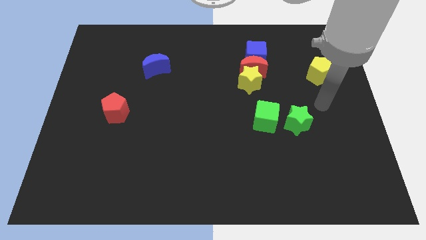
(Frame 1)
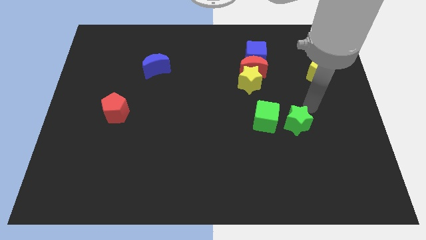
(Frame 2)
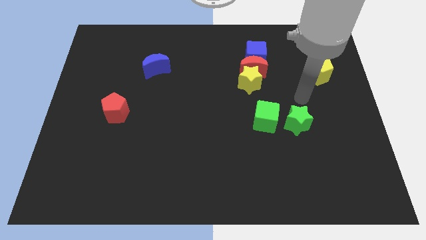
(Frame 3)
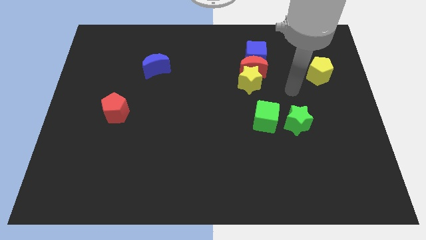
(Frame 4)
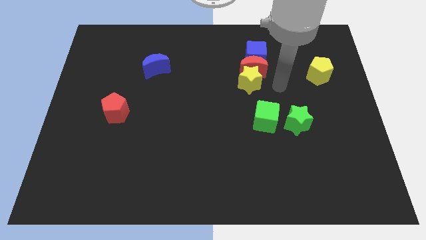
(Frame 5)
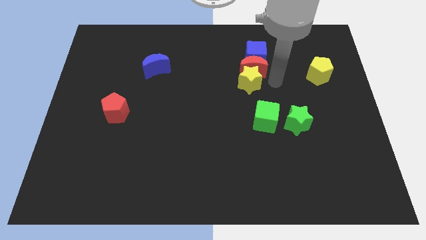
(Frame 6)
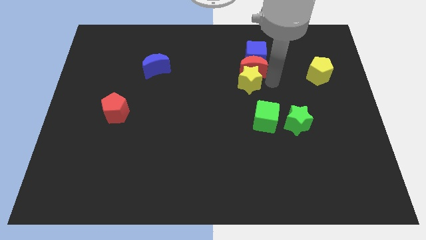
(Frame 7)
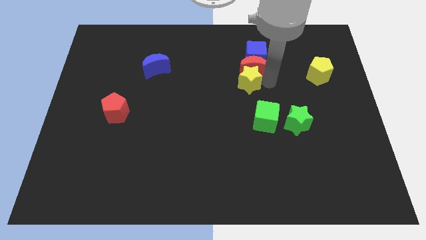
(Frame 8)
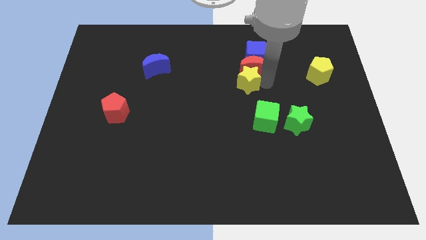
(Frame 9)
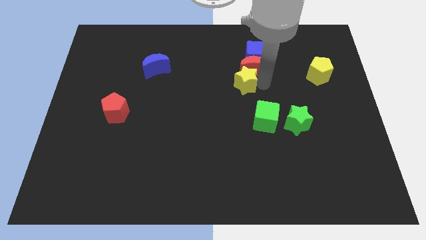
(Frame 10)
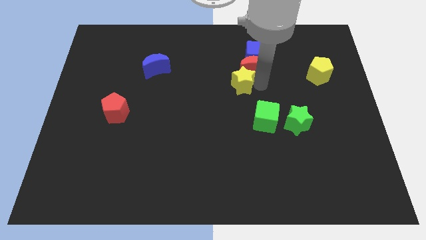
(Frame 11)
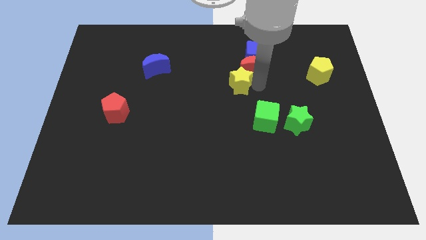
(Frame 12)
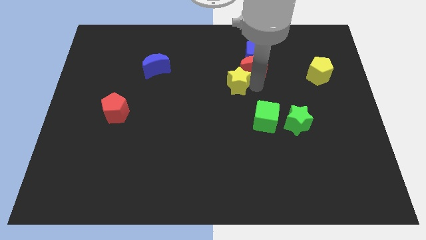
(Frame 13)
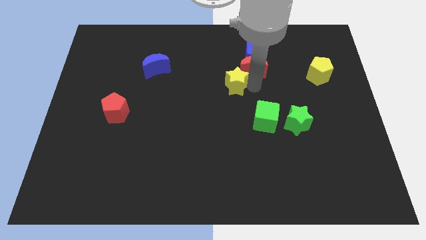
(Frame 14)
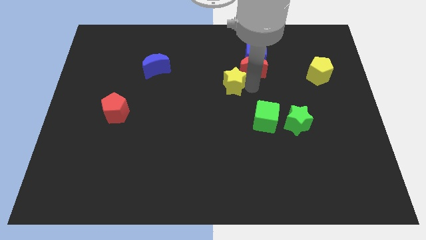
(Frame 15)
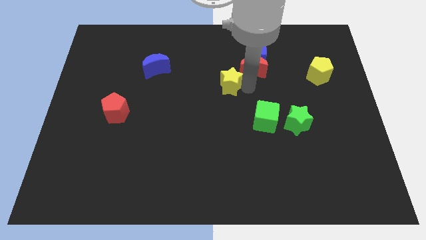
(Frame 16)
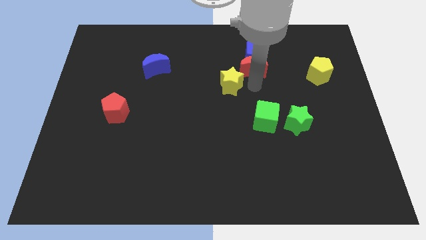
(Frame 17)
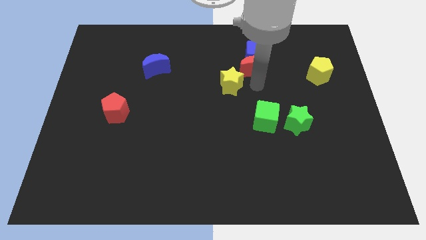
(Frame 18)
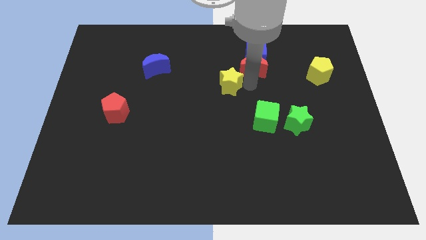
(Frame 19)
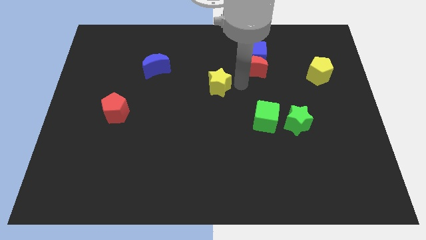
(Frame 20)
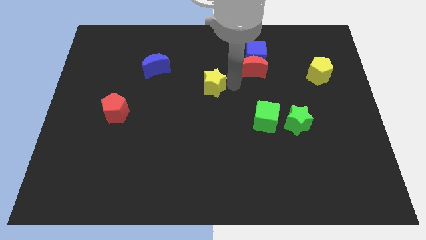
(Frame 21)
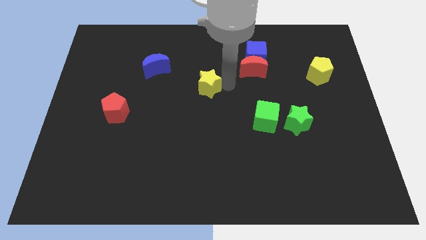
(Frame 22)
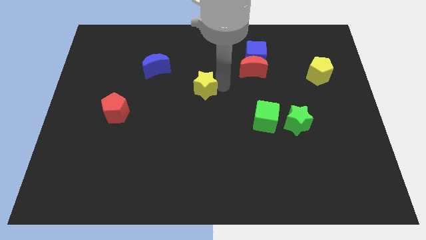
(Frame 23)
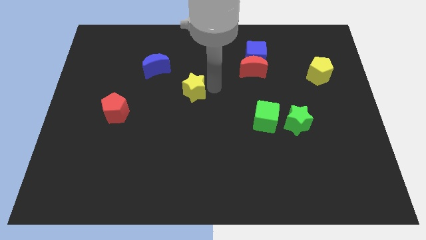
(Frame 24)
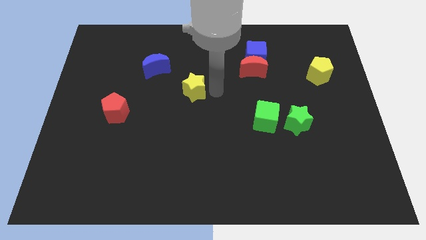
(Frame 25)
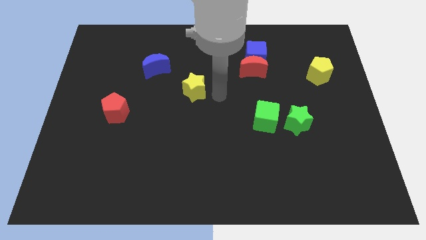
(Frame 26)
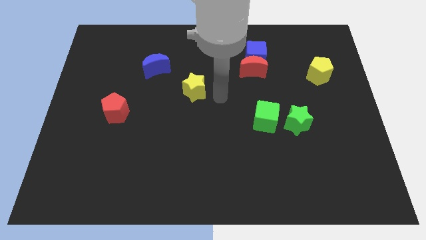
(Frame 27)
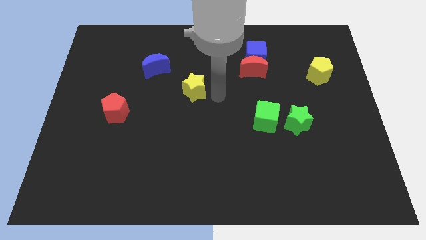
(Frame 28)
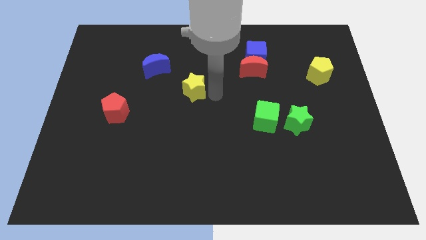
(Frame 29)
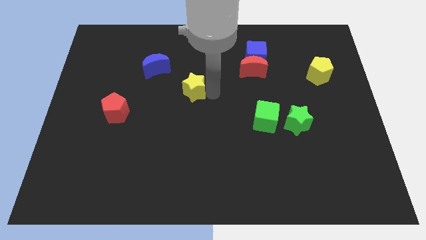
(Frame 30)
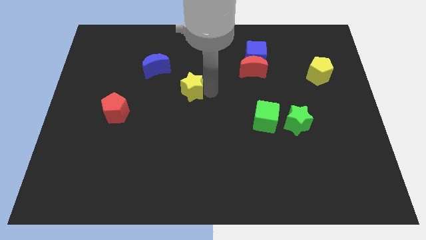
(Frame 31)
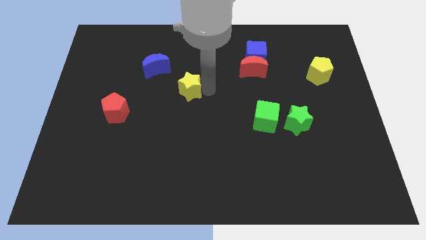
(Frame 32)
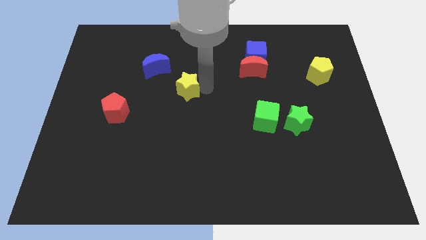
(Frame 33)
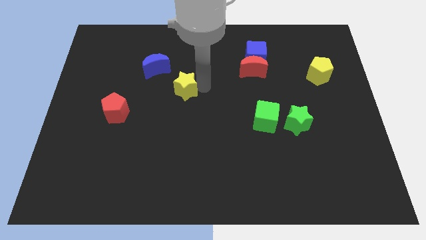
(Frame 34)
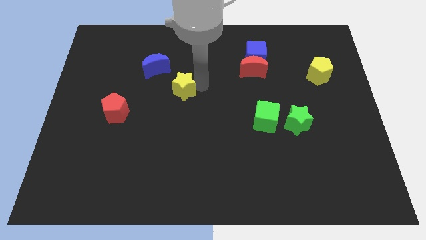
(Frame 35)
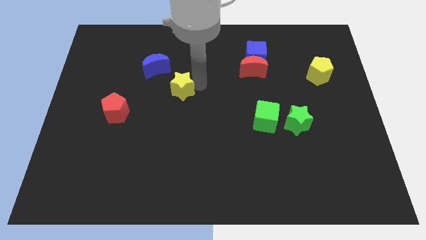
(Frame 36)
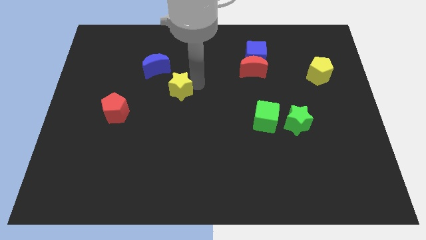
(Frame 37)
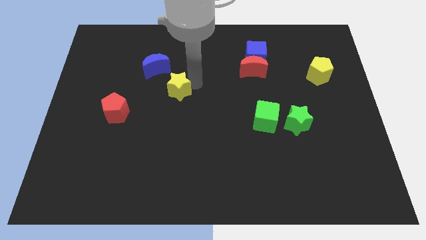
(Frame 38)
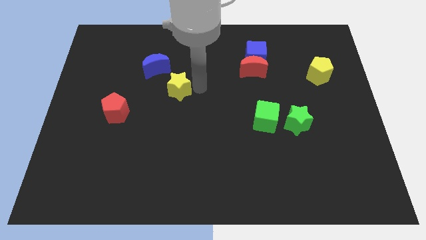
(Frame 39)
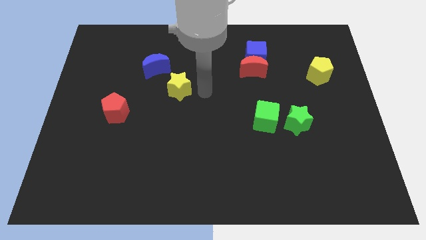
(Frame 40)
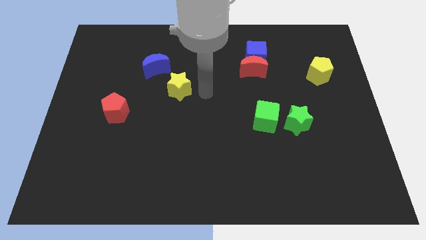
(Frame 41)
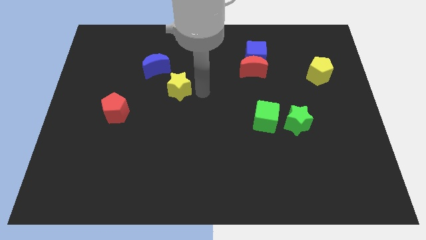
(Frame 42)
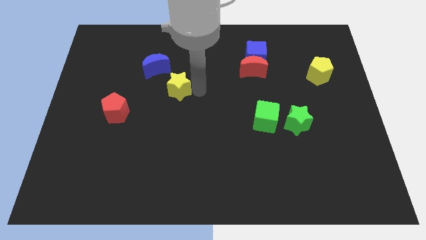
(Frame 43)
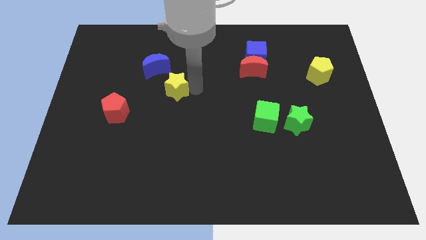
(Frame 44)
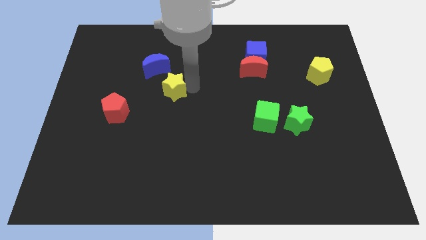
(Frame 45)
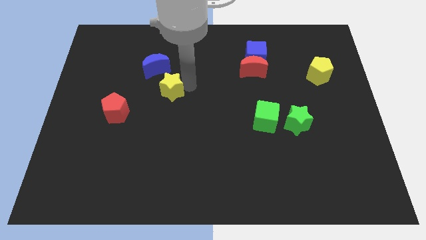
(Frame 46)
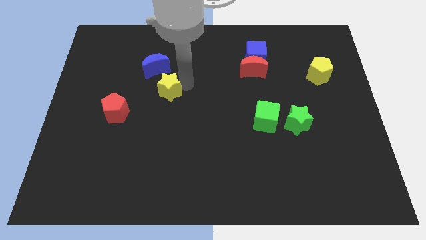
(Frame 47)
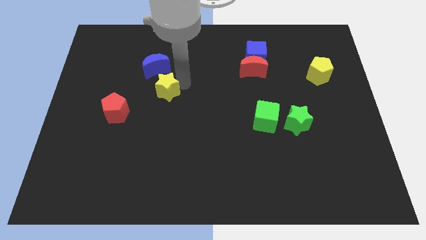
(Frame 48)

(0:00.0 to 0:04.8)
slide the yellow star to the left

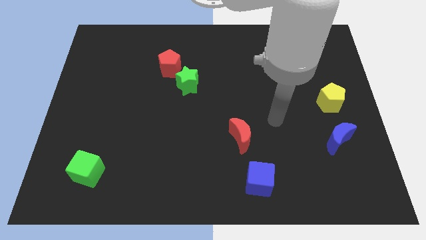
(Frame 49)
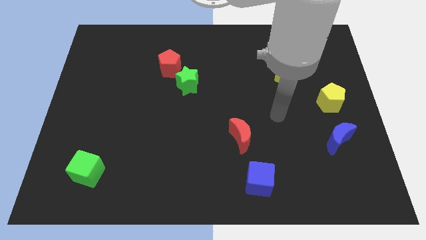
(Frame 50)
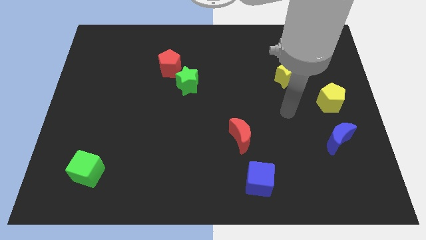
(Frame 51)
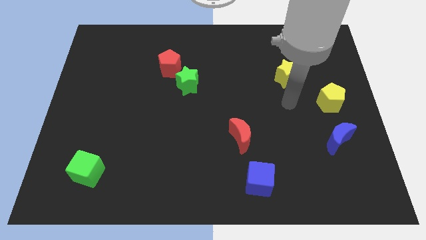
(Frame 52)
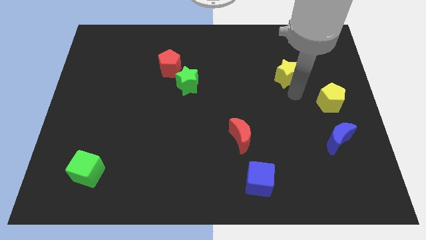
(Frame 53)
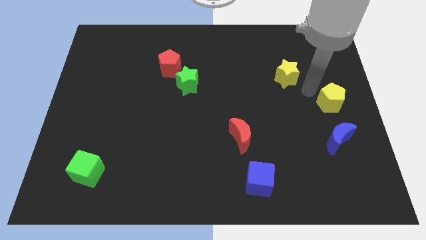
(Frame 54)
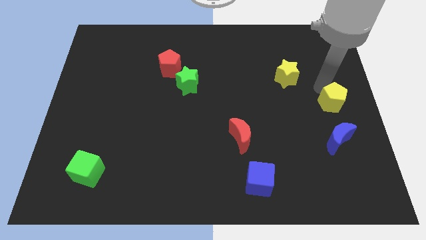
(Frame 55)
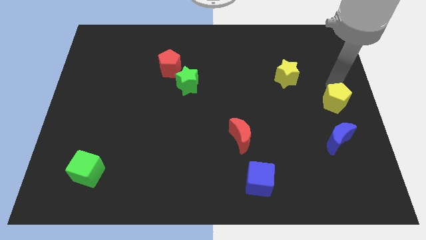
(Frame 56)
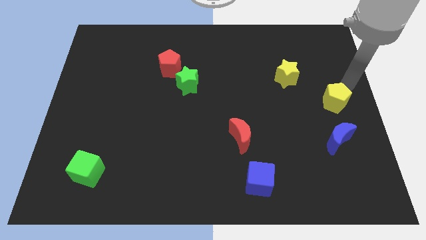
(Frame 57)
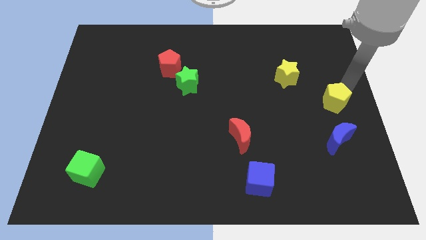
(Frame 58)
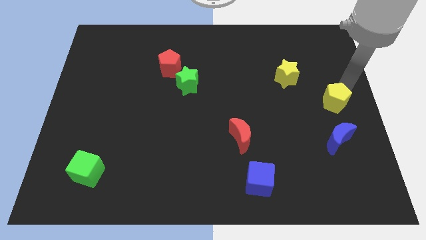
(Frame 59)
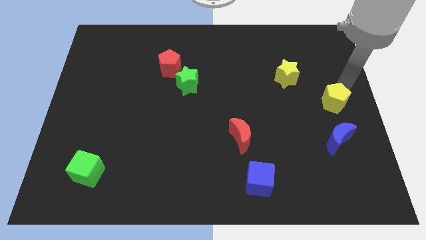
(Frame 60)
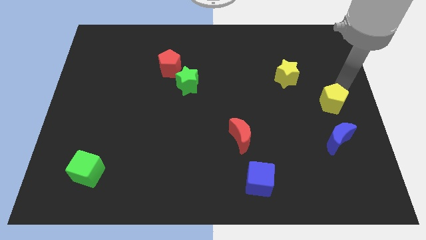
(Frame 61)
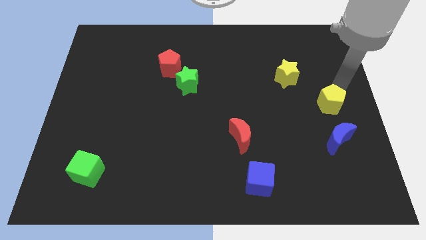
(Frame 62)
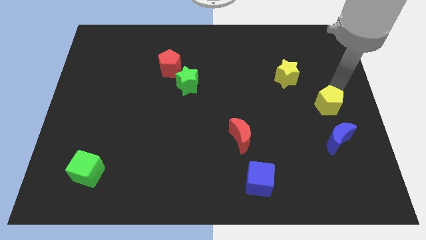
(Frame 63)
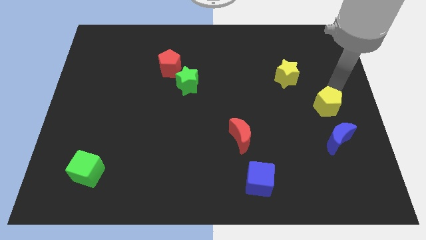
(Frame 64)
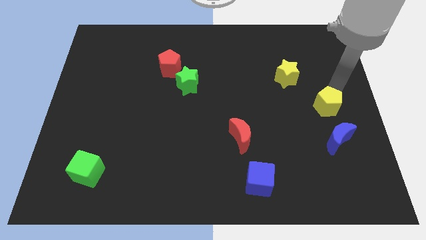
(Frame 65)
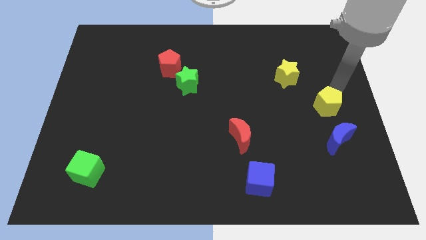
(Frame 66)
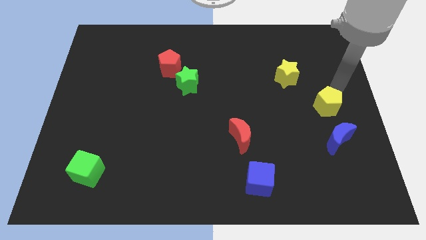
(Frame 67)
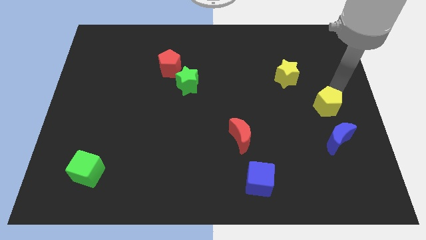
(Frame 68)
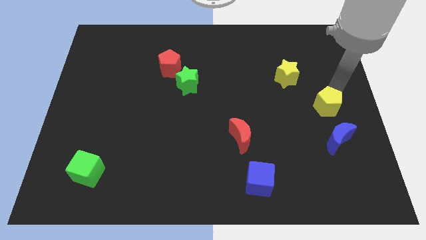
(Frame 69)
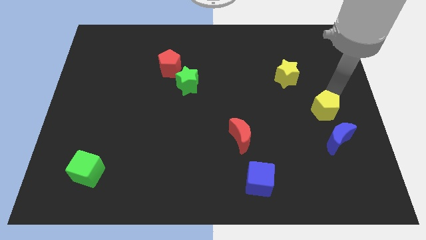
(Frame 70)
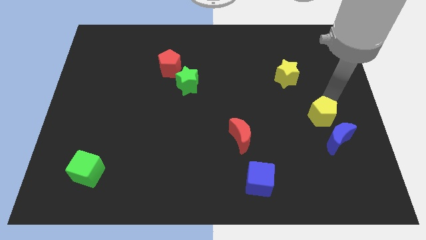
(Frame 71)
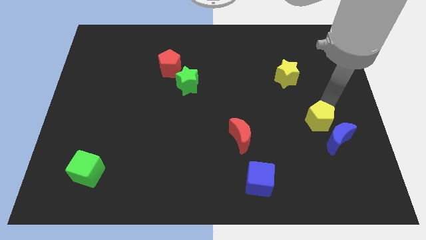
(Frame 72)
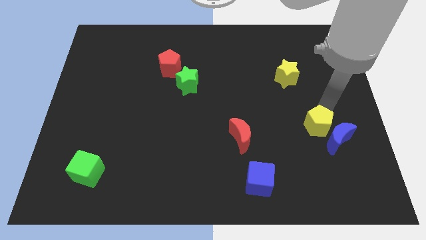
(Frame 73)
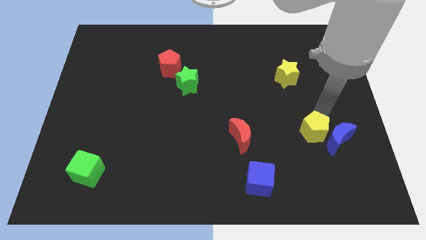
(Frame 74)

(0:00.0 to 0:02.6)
move the yellow pentagon down somewhat

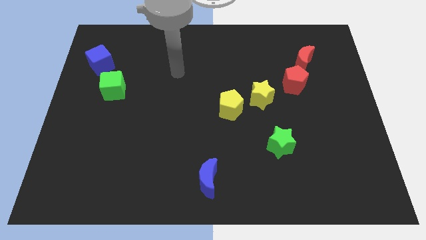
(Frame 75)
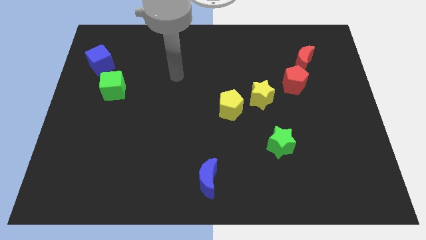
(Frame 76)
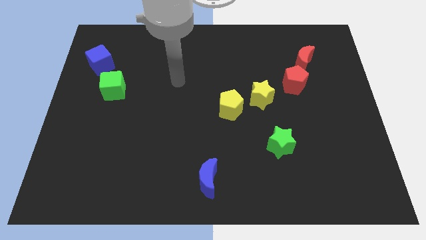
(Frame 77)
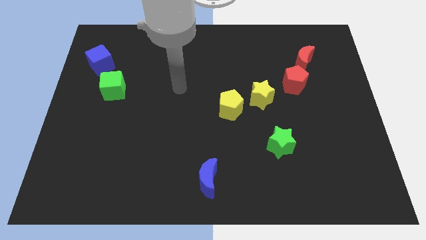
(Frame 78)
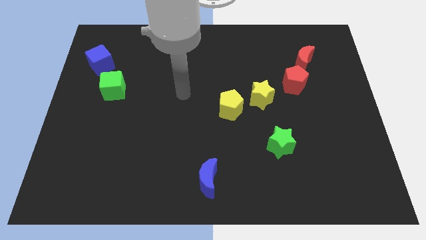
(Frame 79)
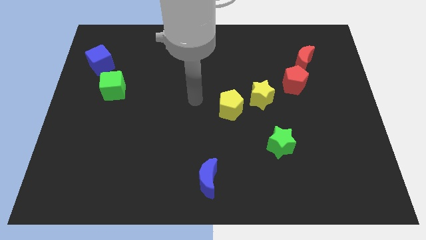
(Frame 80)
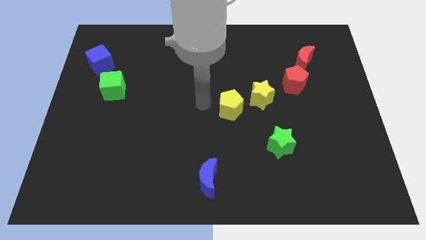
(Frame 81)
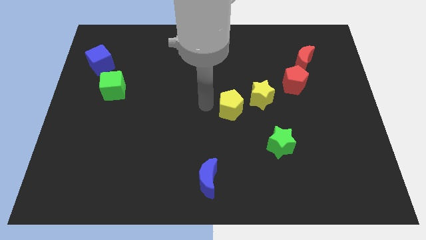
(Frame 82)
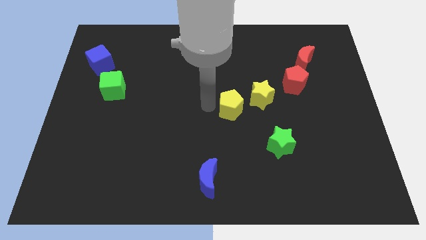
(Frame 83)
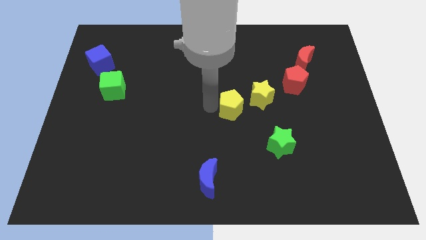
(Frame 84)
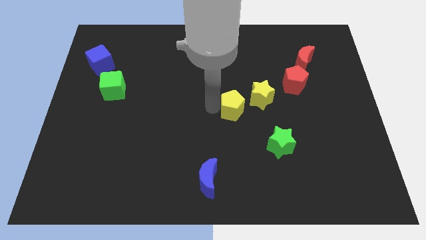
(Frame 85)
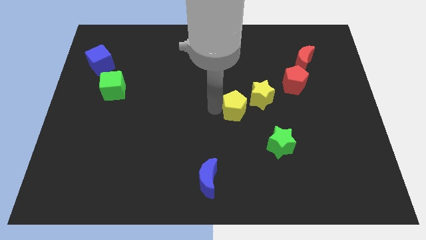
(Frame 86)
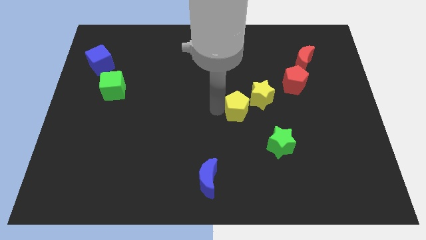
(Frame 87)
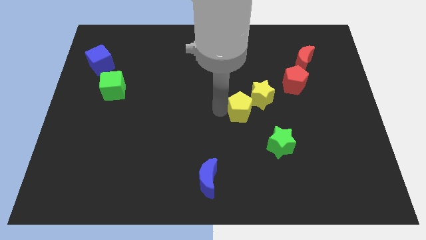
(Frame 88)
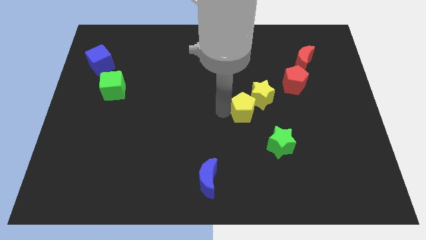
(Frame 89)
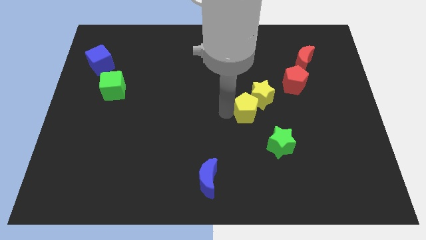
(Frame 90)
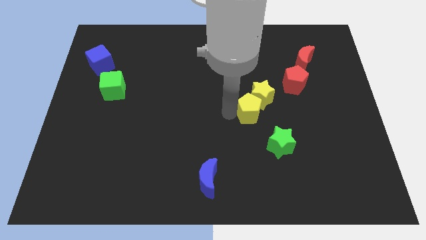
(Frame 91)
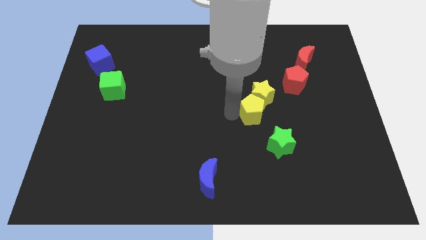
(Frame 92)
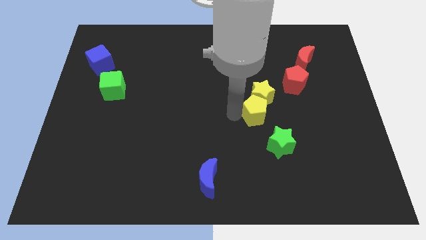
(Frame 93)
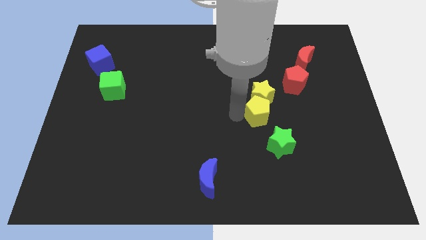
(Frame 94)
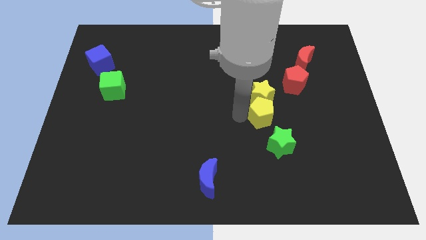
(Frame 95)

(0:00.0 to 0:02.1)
slightly move the yellow pentagon right
